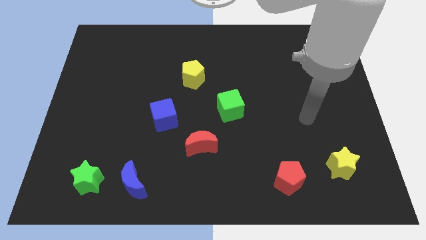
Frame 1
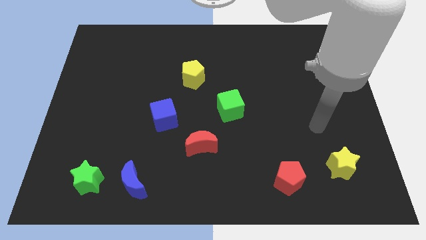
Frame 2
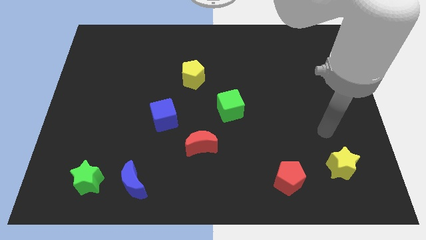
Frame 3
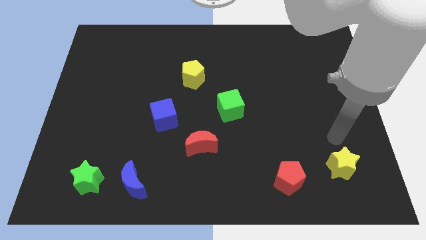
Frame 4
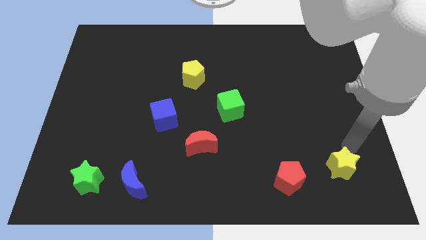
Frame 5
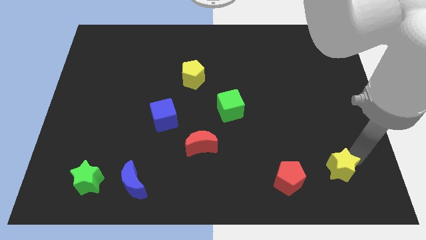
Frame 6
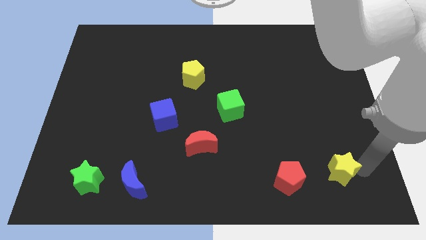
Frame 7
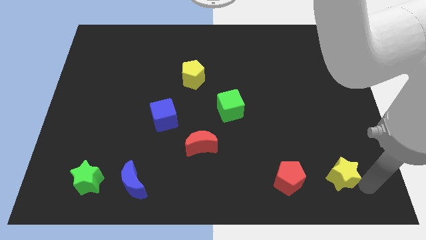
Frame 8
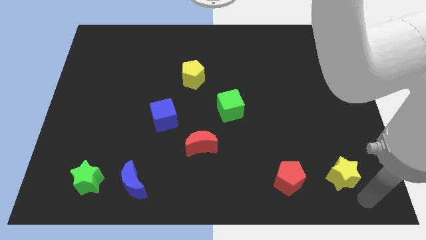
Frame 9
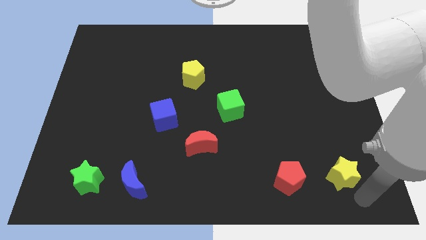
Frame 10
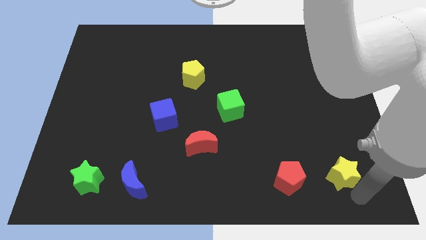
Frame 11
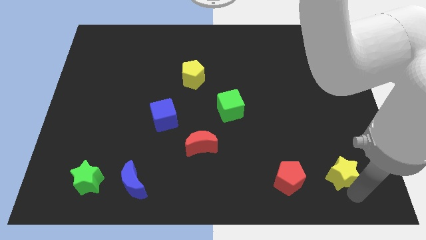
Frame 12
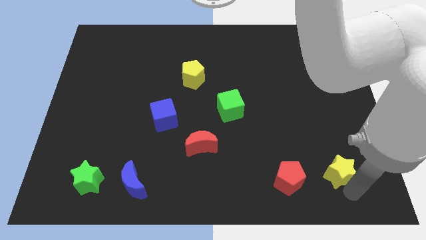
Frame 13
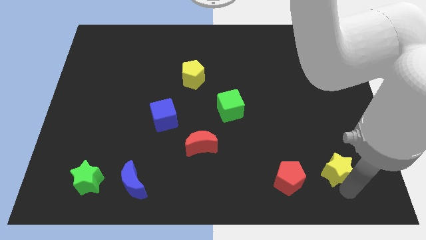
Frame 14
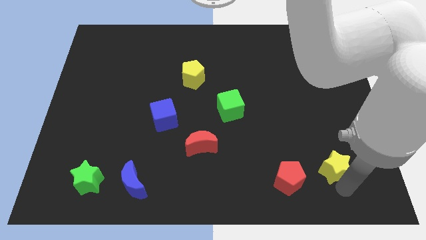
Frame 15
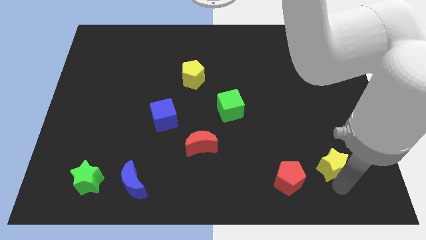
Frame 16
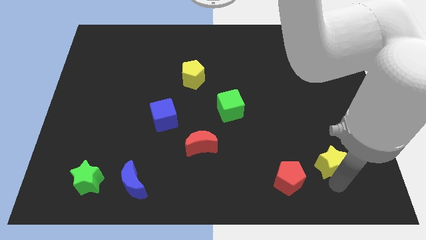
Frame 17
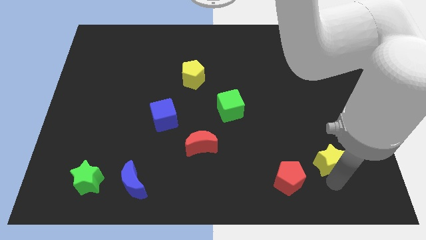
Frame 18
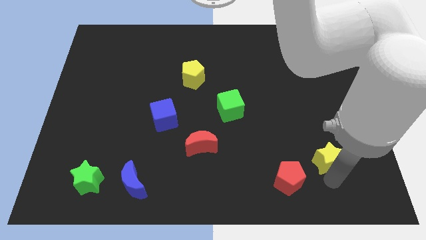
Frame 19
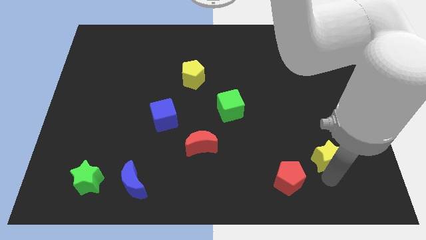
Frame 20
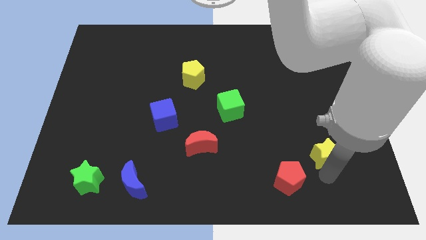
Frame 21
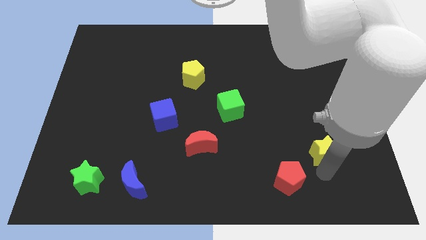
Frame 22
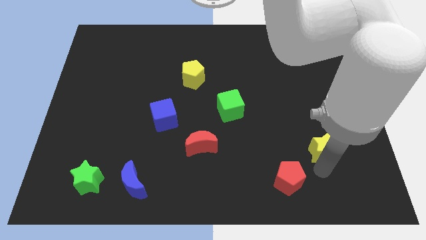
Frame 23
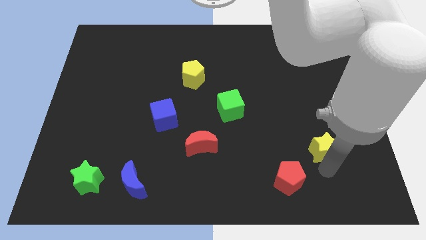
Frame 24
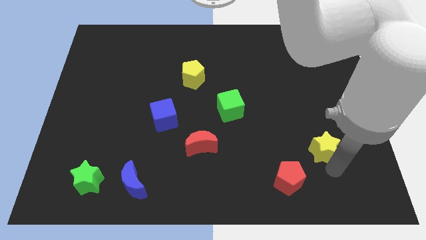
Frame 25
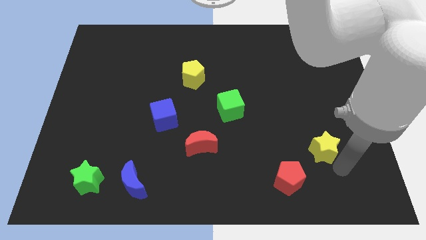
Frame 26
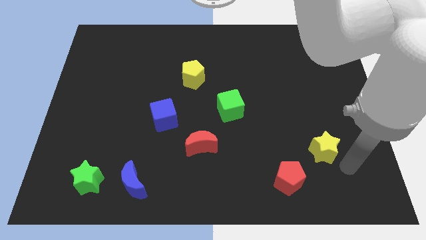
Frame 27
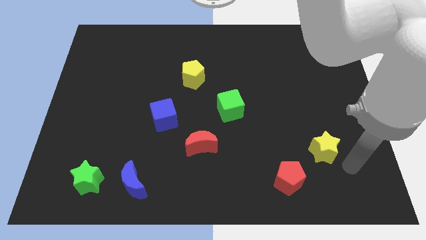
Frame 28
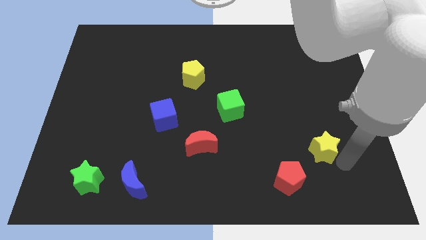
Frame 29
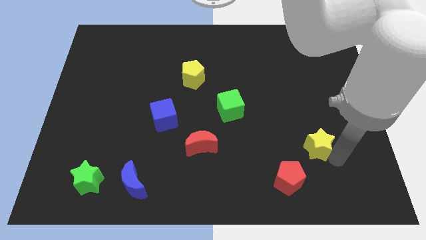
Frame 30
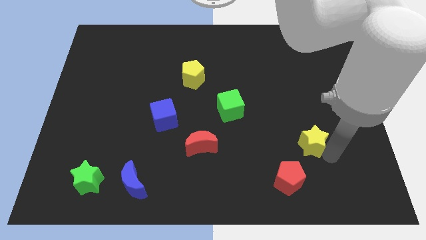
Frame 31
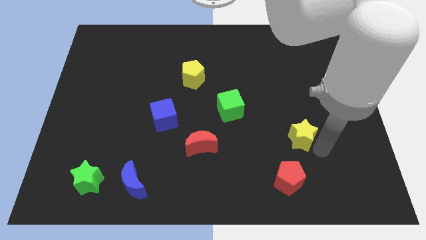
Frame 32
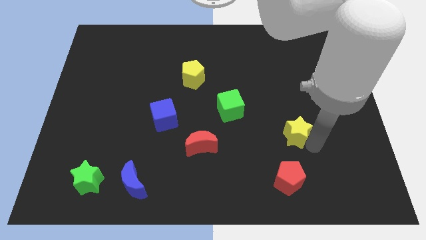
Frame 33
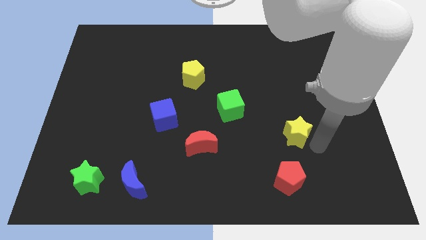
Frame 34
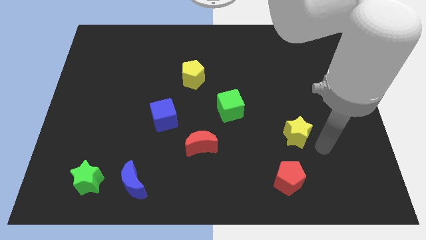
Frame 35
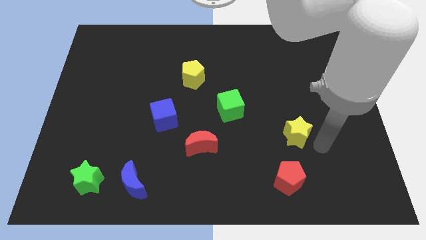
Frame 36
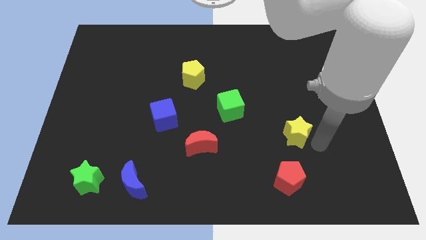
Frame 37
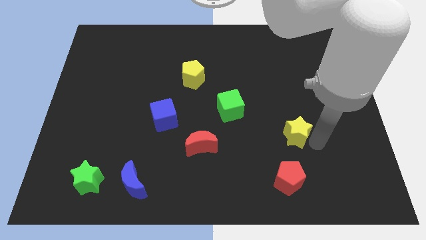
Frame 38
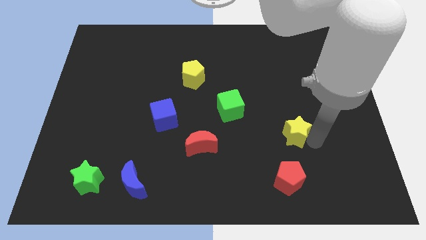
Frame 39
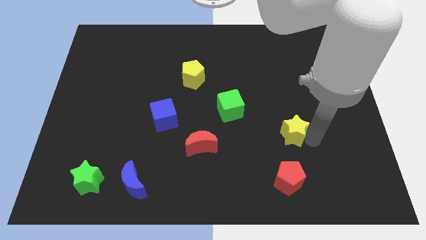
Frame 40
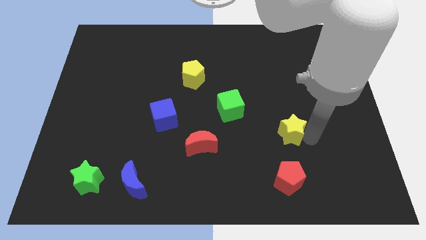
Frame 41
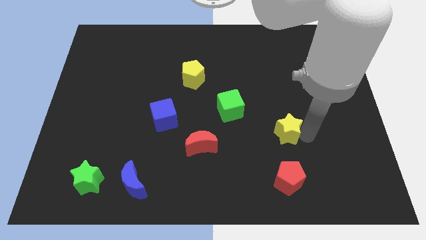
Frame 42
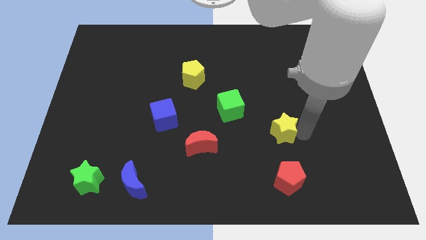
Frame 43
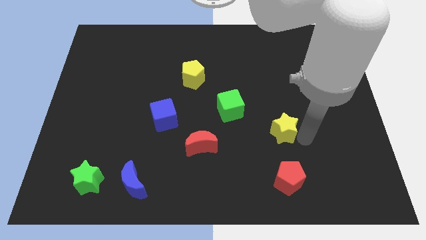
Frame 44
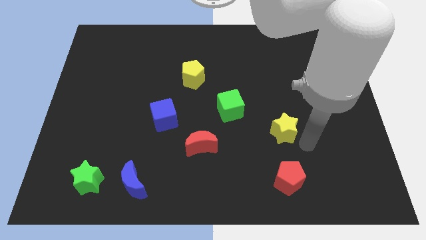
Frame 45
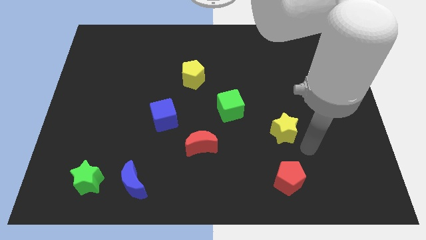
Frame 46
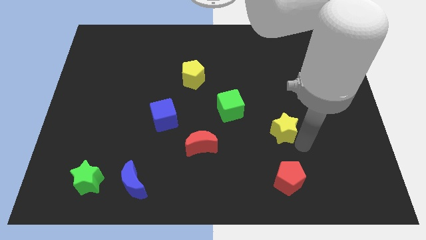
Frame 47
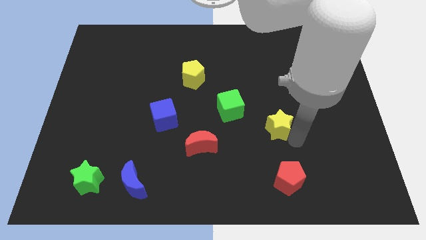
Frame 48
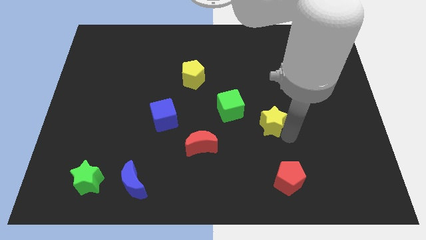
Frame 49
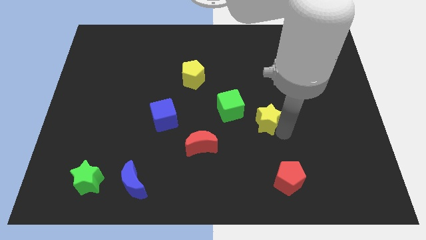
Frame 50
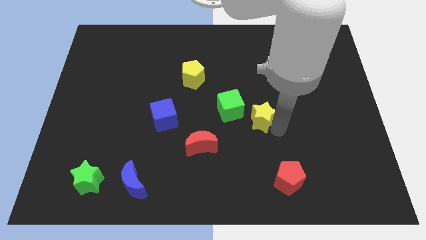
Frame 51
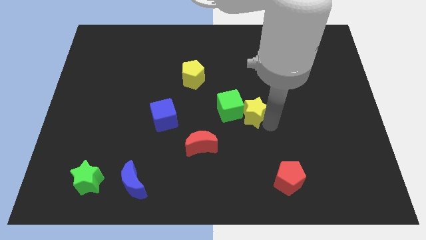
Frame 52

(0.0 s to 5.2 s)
slide the yellow star close to the green cube

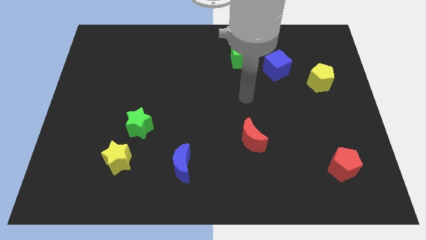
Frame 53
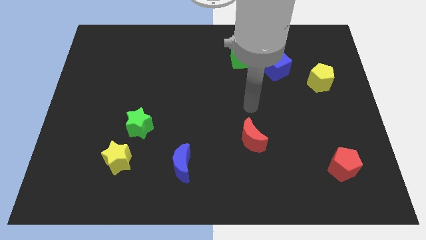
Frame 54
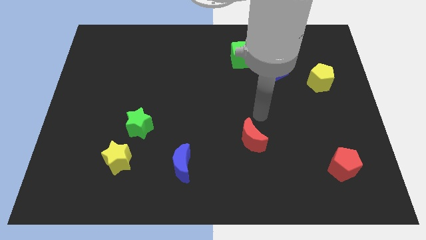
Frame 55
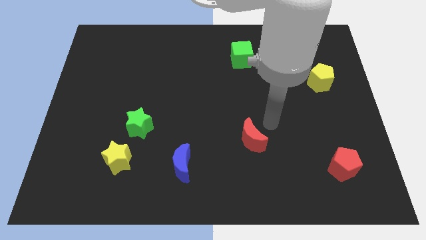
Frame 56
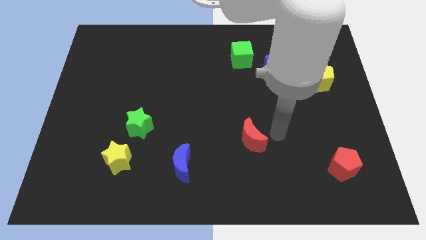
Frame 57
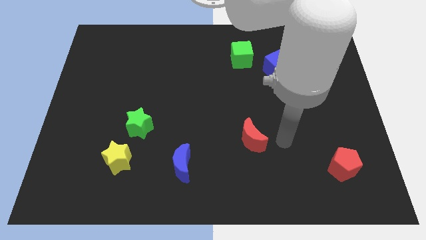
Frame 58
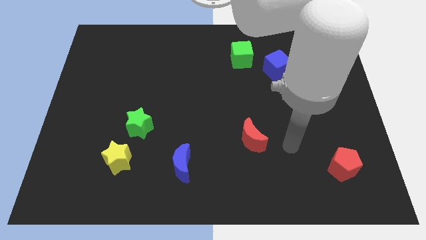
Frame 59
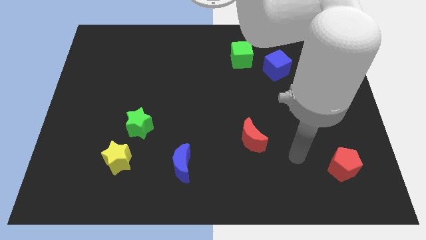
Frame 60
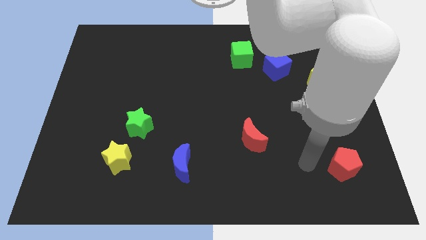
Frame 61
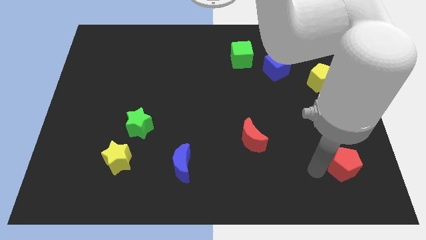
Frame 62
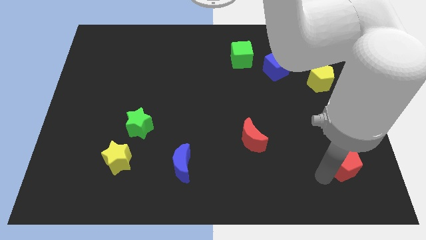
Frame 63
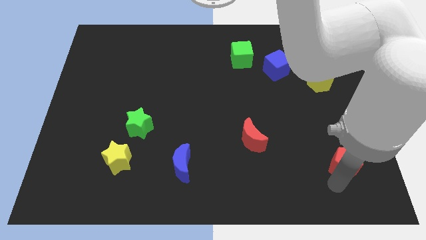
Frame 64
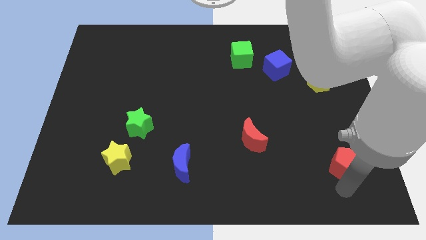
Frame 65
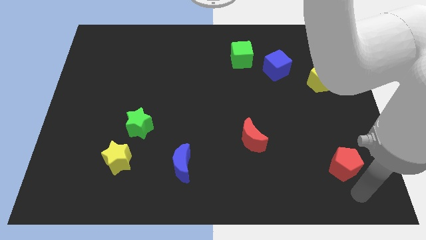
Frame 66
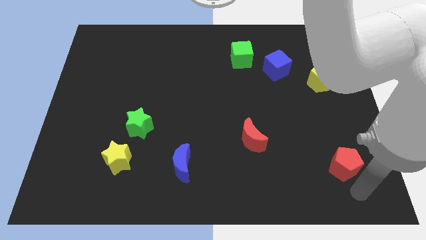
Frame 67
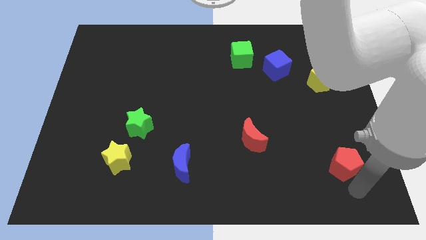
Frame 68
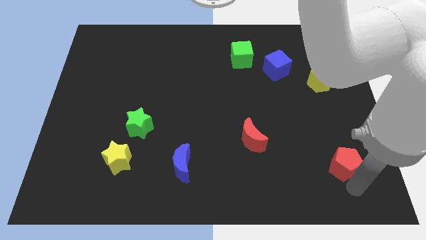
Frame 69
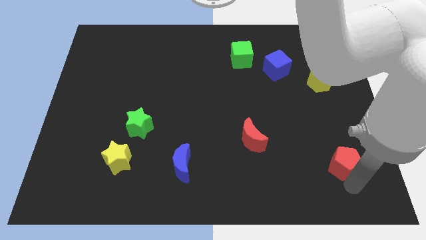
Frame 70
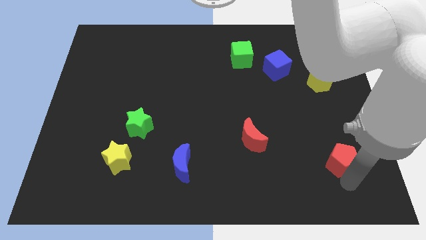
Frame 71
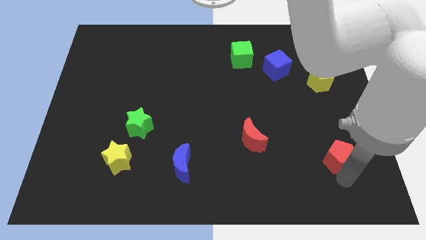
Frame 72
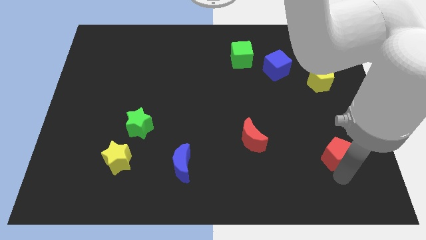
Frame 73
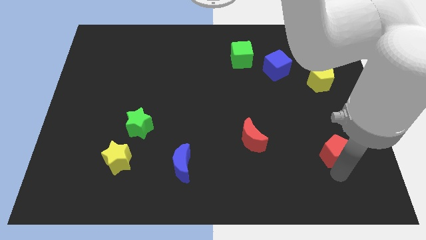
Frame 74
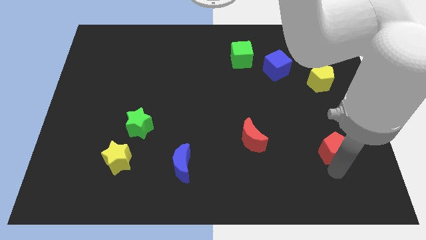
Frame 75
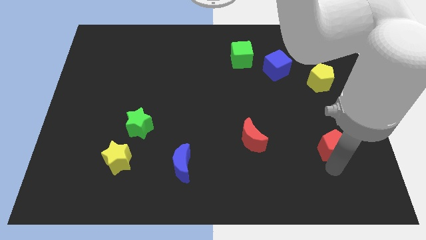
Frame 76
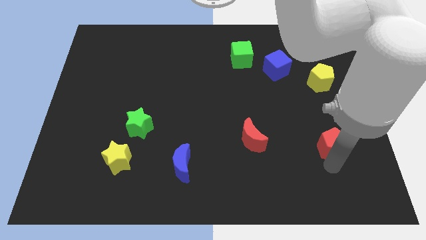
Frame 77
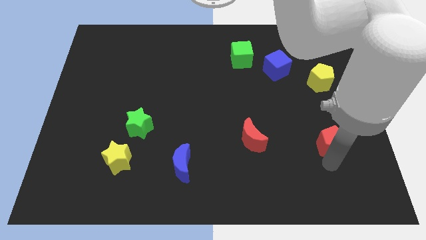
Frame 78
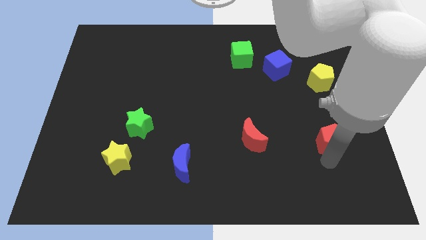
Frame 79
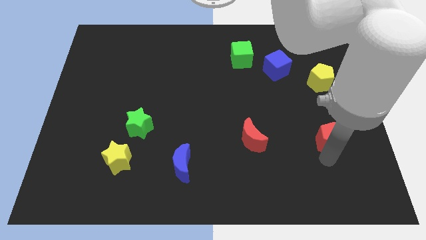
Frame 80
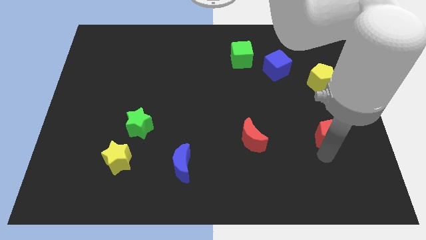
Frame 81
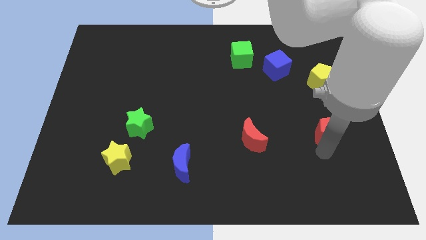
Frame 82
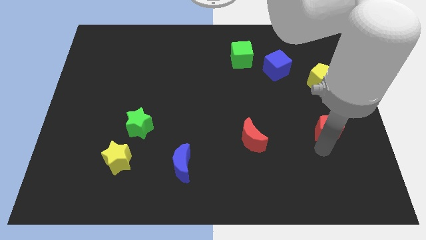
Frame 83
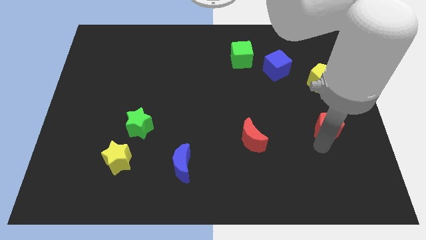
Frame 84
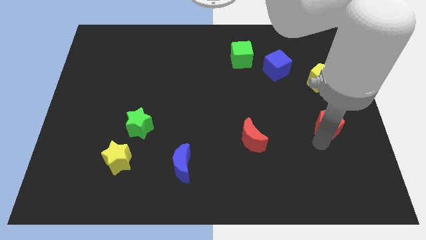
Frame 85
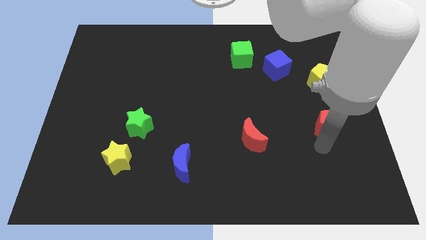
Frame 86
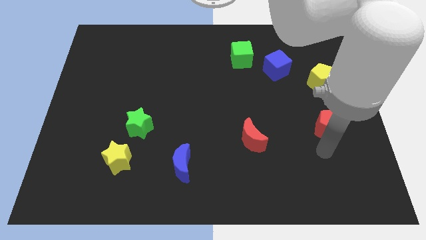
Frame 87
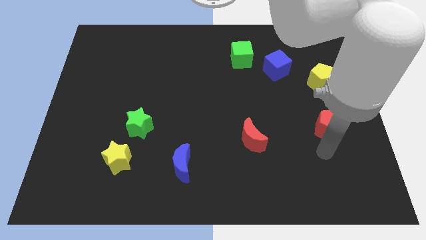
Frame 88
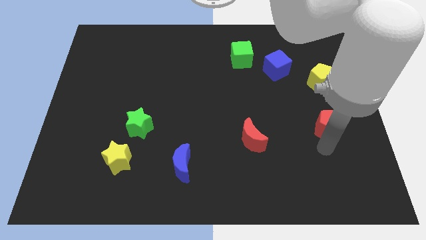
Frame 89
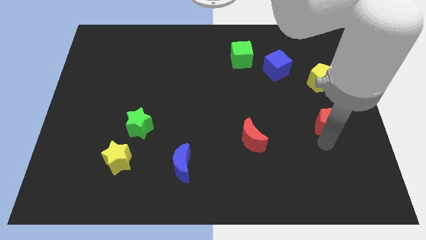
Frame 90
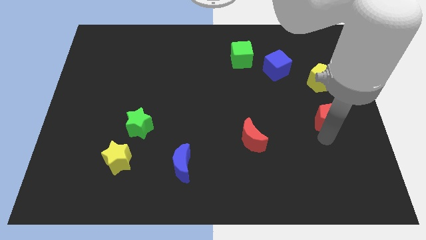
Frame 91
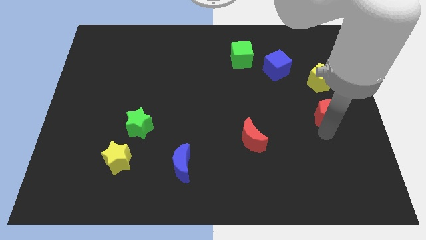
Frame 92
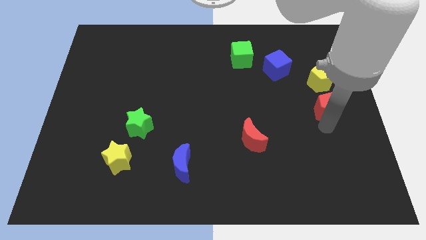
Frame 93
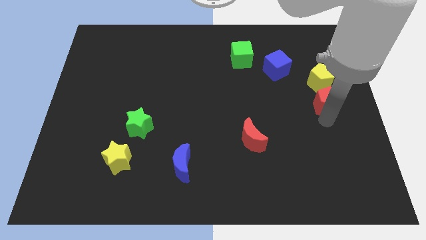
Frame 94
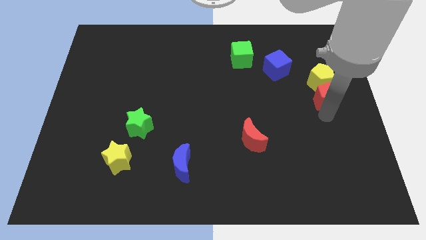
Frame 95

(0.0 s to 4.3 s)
slide the red pentagon close to the yellow pentagon
